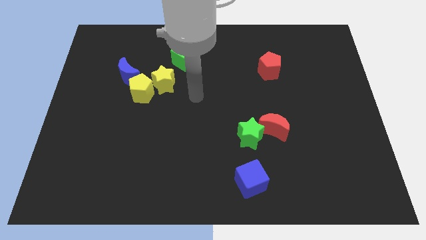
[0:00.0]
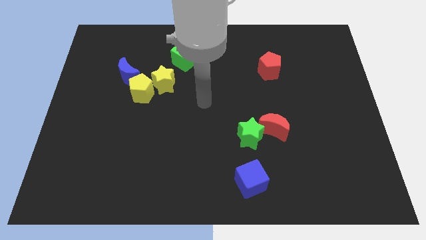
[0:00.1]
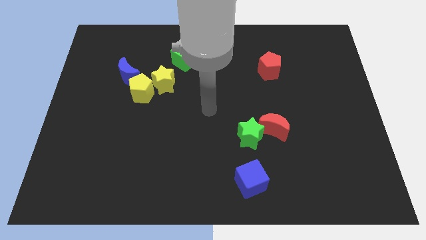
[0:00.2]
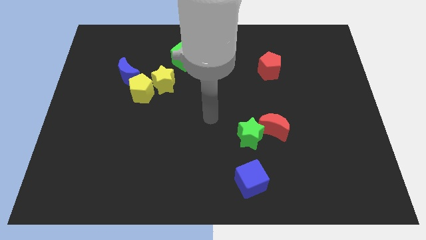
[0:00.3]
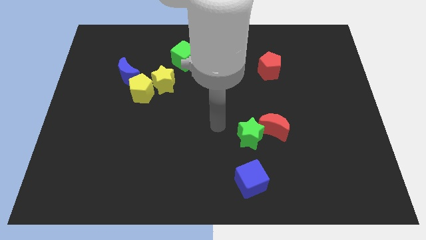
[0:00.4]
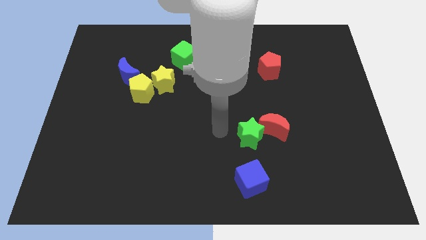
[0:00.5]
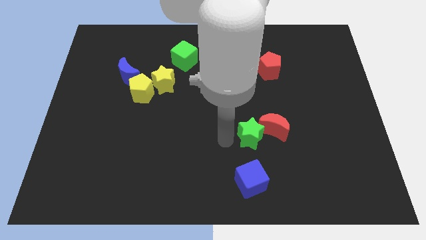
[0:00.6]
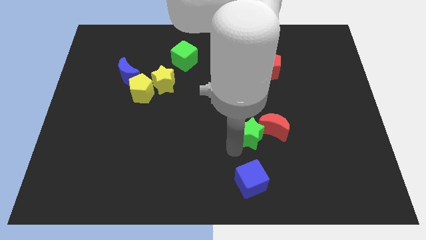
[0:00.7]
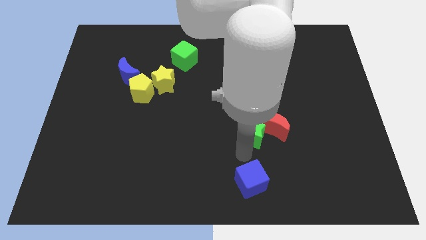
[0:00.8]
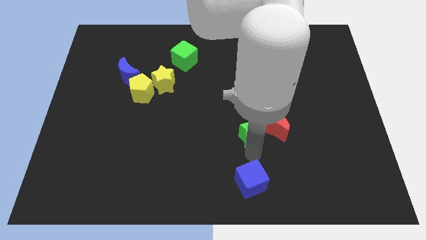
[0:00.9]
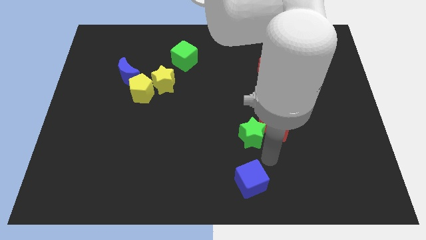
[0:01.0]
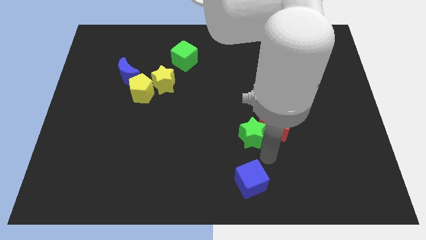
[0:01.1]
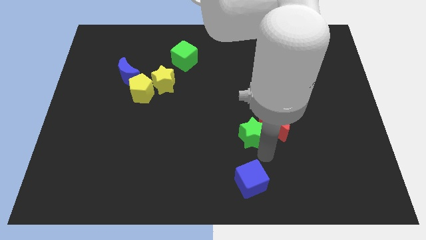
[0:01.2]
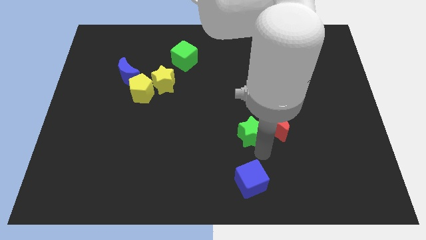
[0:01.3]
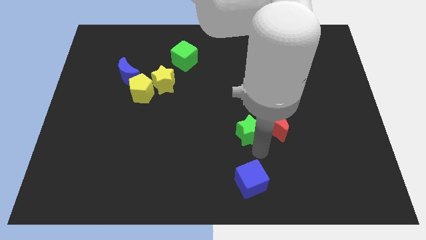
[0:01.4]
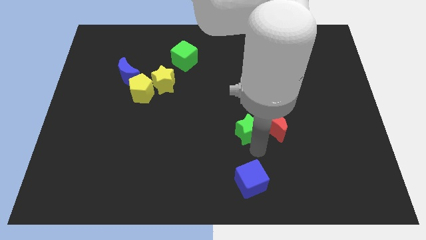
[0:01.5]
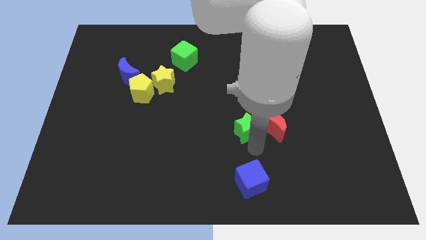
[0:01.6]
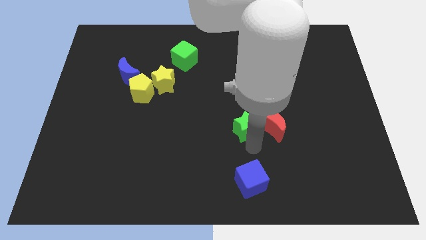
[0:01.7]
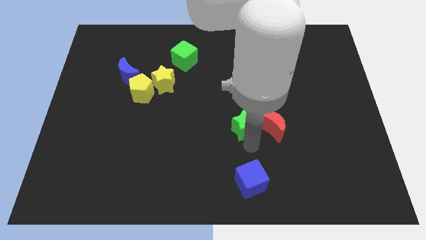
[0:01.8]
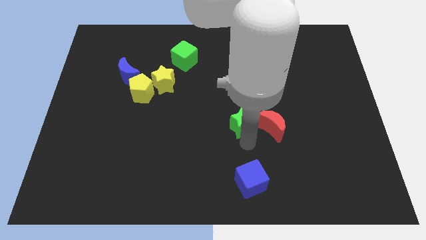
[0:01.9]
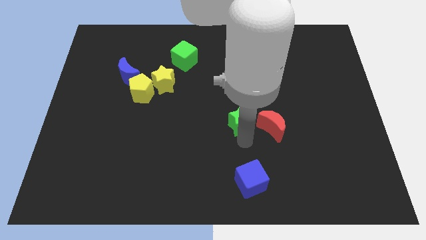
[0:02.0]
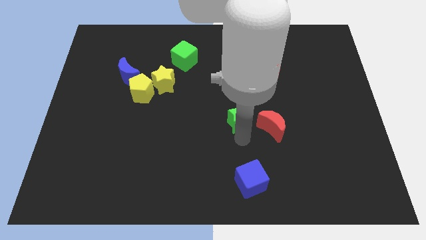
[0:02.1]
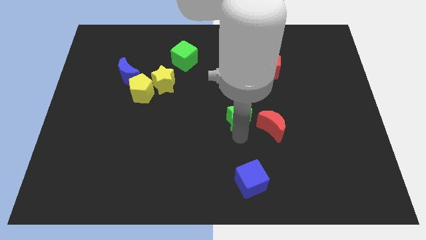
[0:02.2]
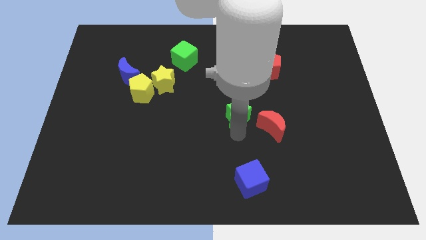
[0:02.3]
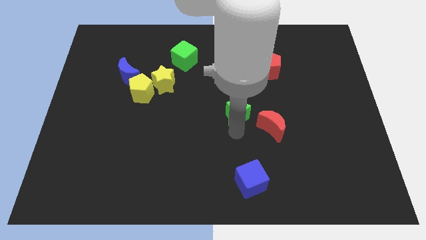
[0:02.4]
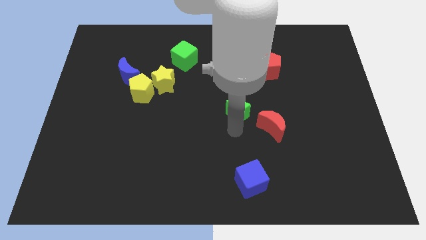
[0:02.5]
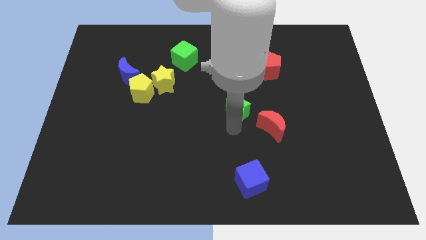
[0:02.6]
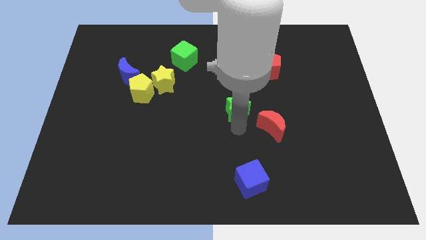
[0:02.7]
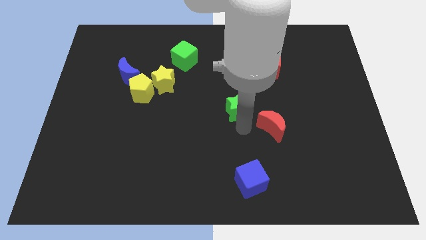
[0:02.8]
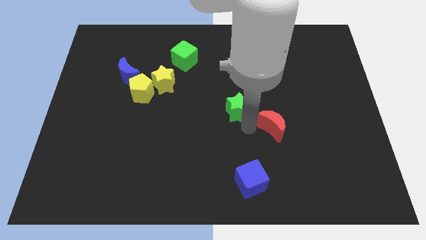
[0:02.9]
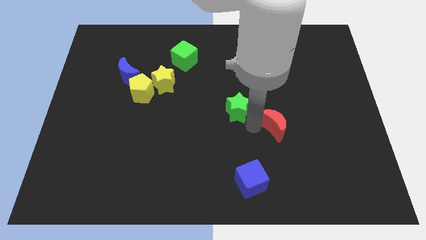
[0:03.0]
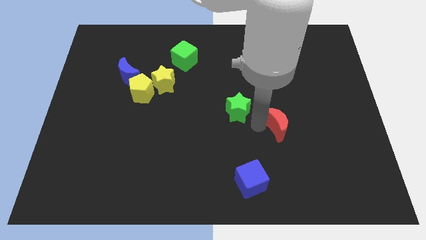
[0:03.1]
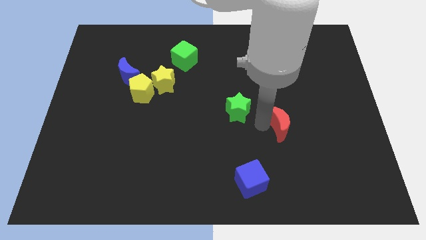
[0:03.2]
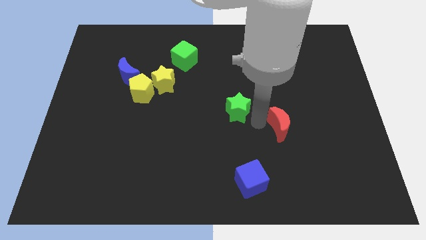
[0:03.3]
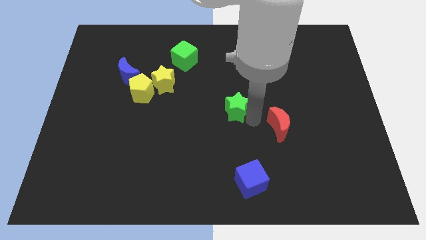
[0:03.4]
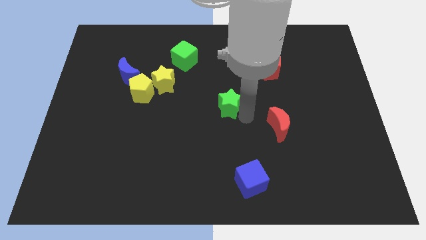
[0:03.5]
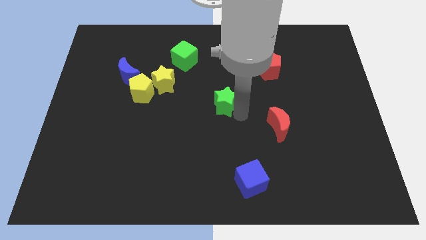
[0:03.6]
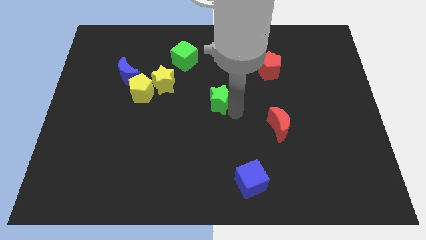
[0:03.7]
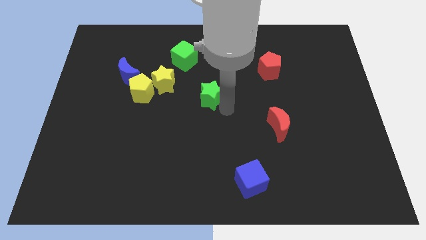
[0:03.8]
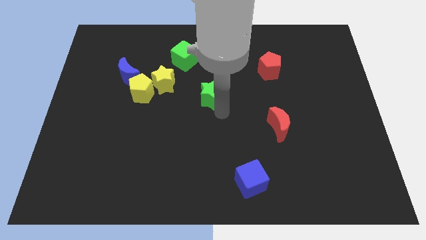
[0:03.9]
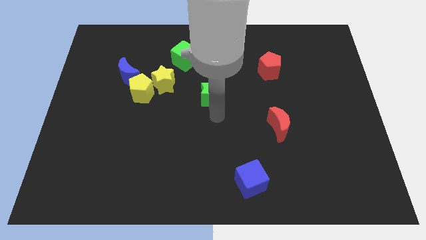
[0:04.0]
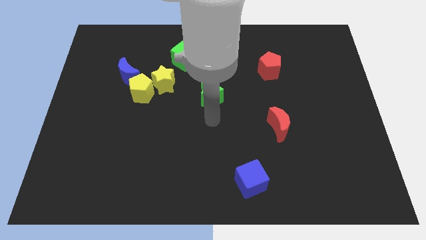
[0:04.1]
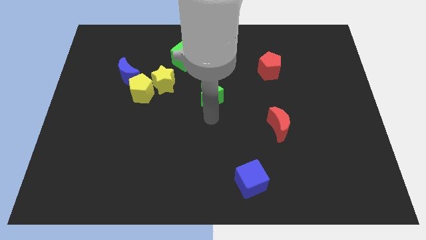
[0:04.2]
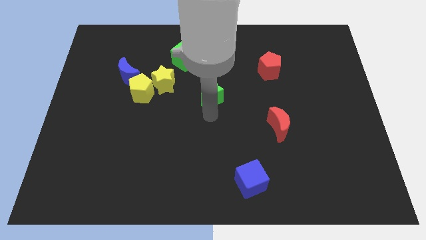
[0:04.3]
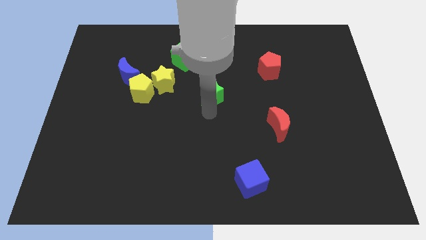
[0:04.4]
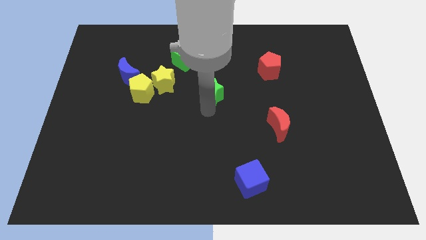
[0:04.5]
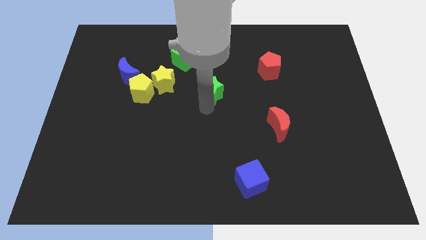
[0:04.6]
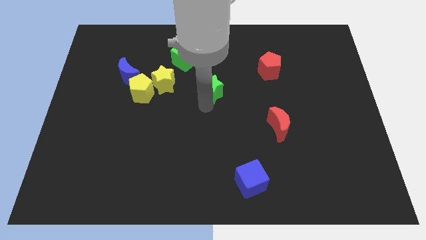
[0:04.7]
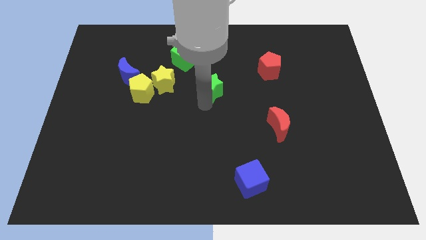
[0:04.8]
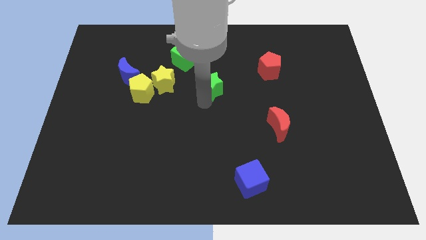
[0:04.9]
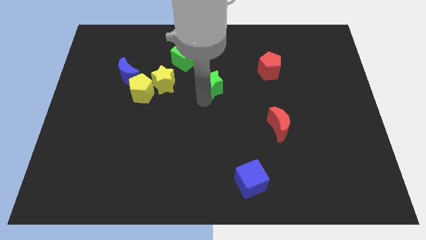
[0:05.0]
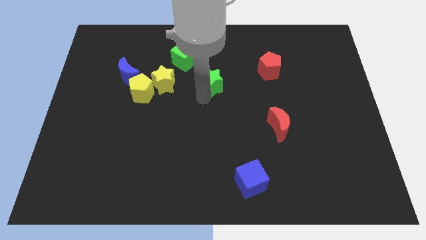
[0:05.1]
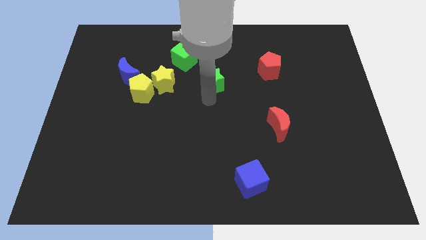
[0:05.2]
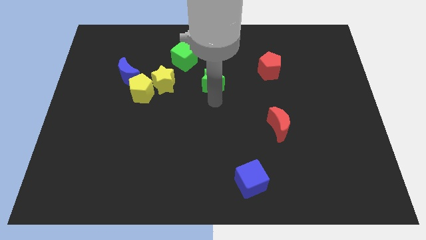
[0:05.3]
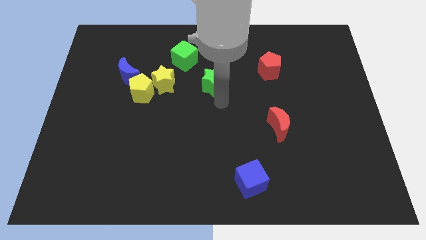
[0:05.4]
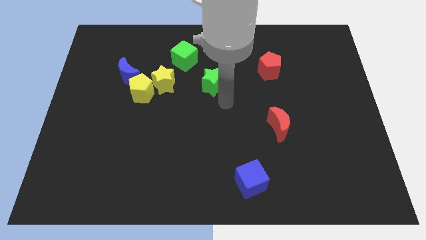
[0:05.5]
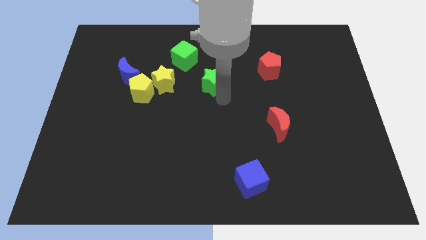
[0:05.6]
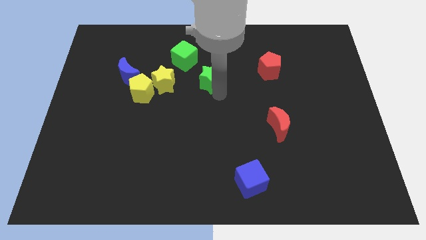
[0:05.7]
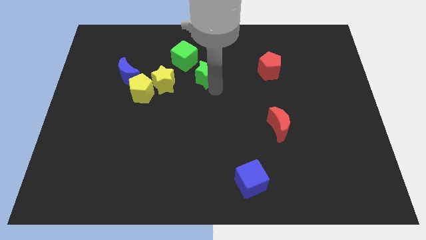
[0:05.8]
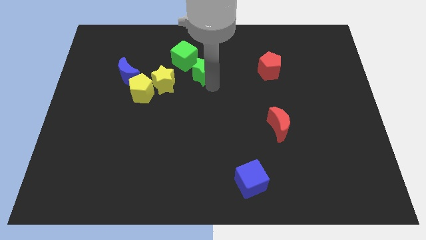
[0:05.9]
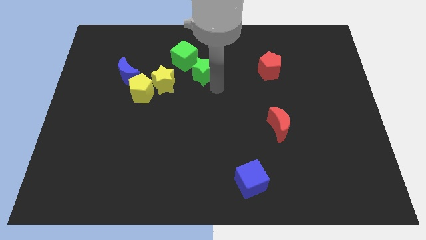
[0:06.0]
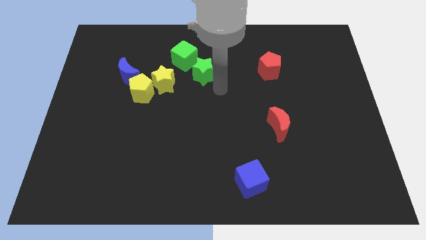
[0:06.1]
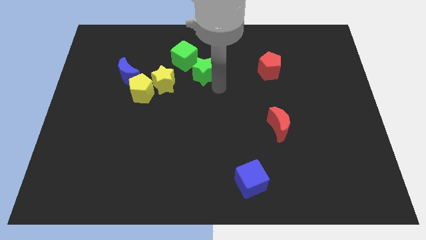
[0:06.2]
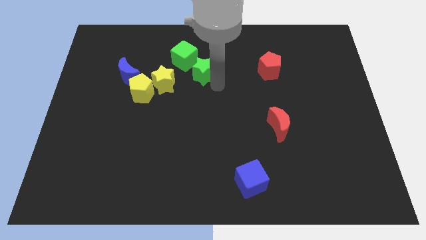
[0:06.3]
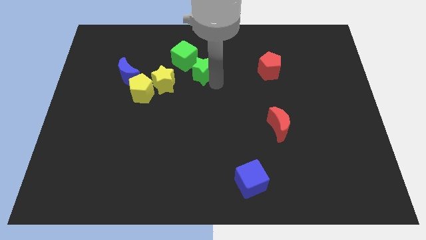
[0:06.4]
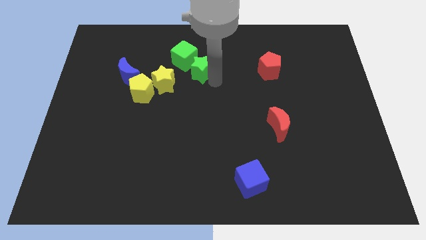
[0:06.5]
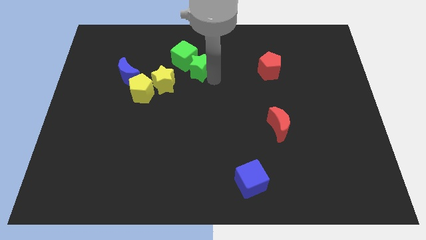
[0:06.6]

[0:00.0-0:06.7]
slide the green star close to the green cube

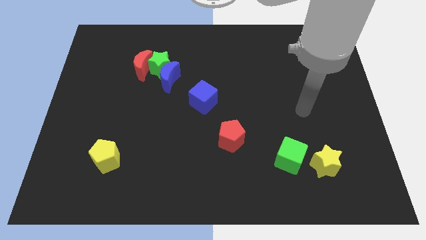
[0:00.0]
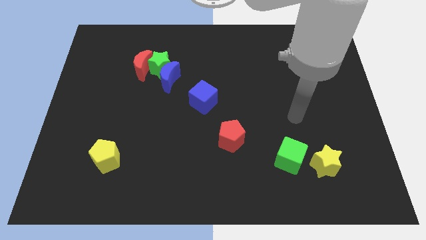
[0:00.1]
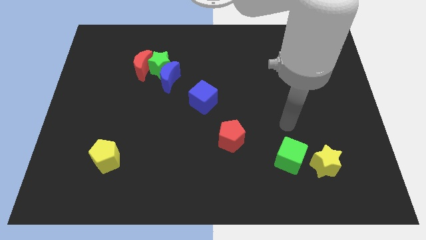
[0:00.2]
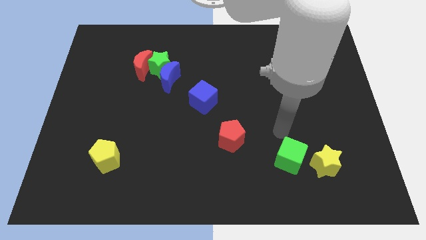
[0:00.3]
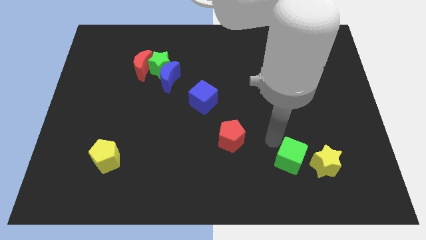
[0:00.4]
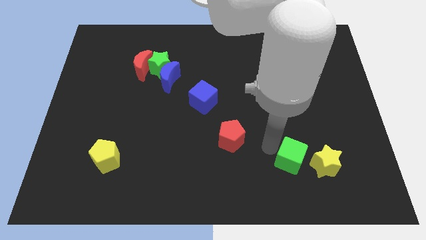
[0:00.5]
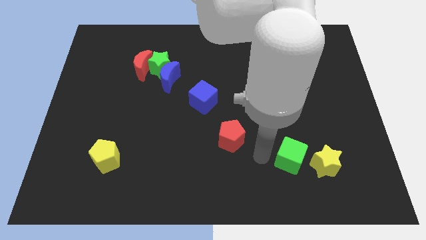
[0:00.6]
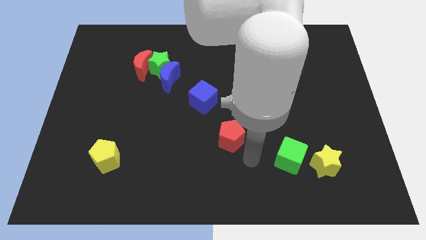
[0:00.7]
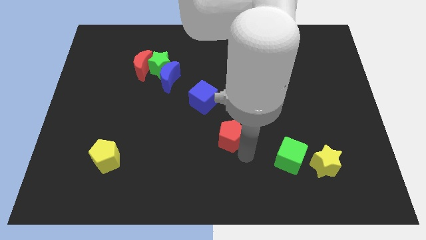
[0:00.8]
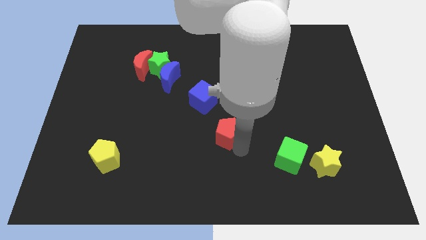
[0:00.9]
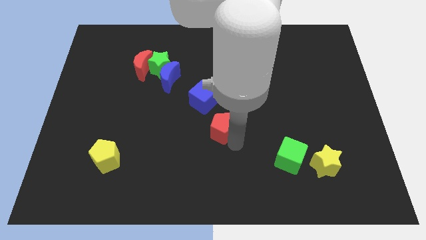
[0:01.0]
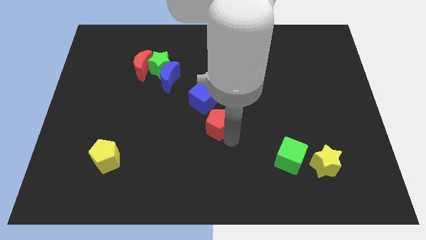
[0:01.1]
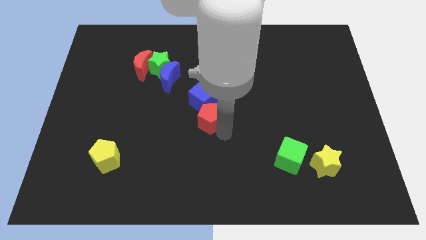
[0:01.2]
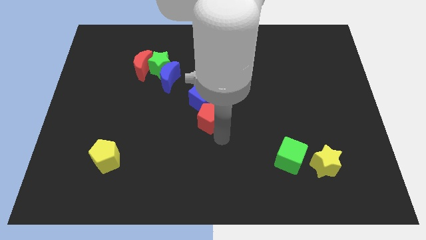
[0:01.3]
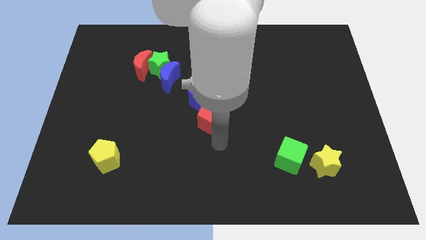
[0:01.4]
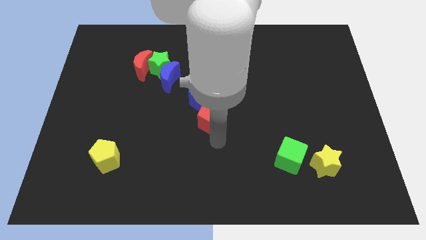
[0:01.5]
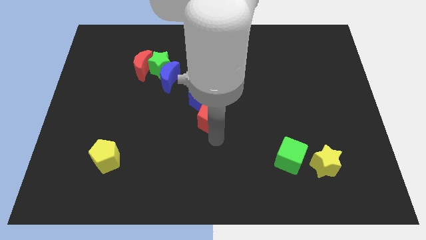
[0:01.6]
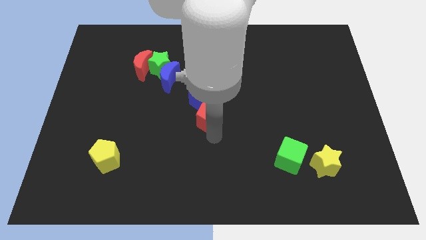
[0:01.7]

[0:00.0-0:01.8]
put the red pentagon close to the blue cube
